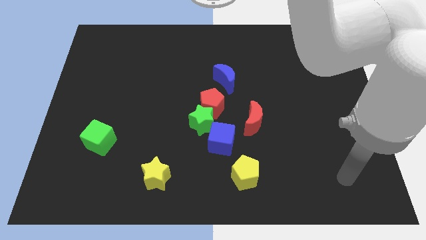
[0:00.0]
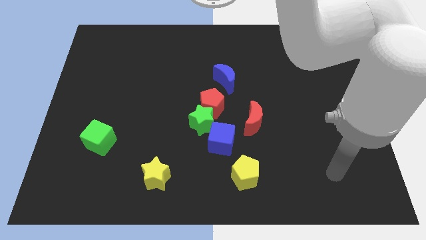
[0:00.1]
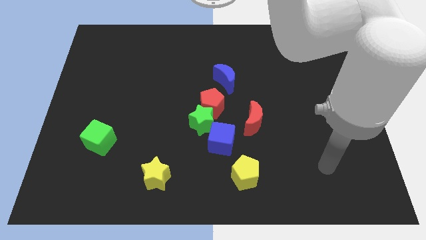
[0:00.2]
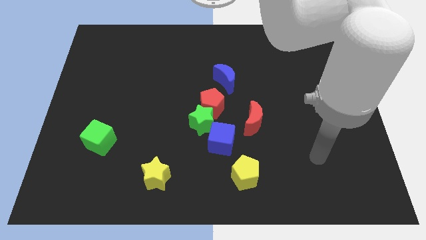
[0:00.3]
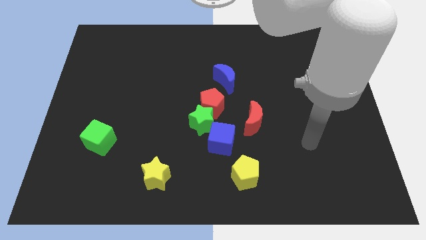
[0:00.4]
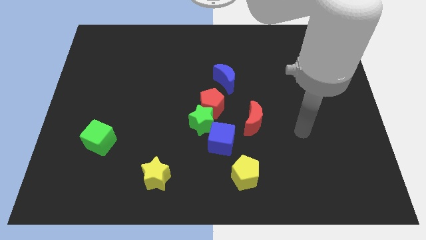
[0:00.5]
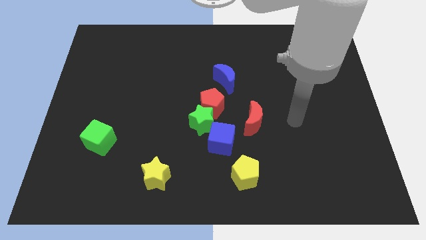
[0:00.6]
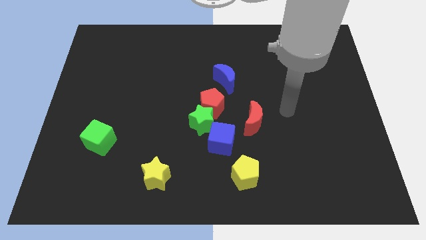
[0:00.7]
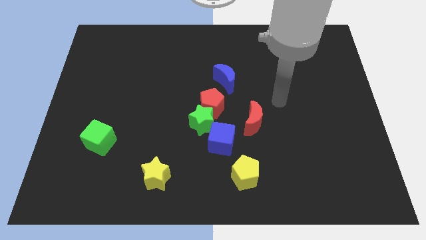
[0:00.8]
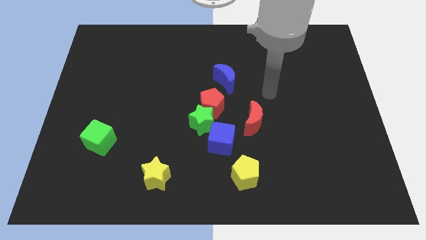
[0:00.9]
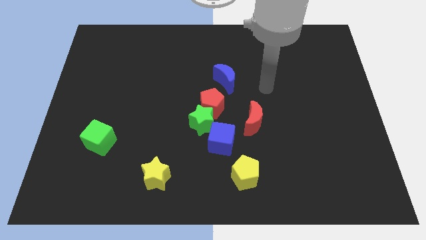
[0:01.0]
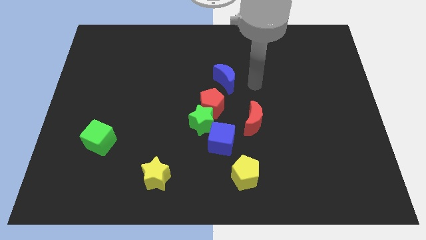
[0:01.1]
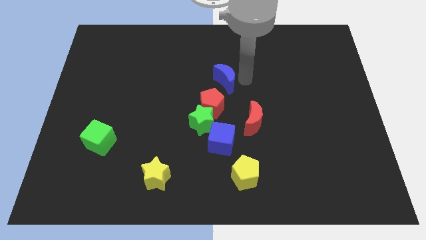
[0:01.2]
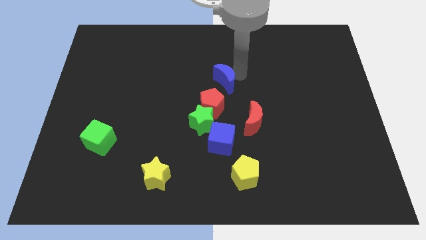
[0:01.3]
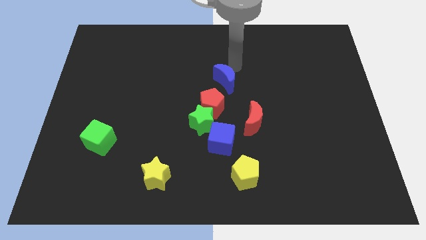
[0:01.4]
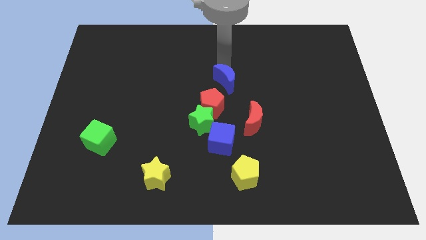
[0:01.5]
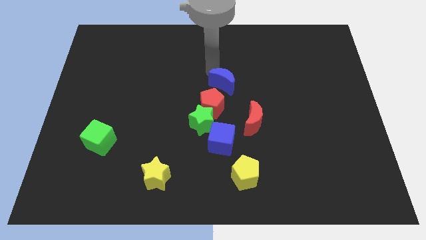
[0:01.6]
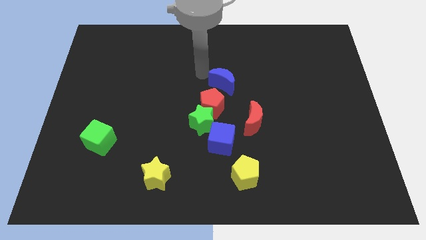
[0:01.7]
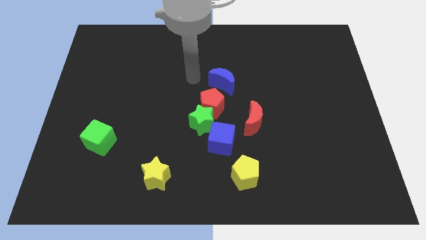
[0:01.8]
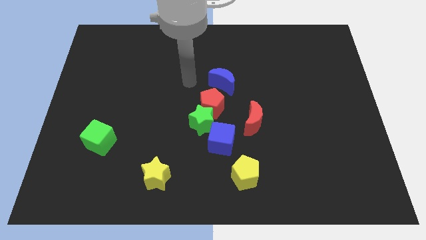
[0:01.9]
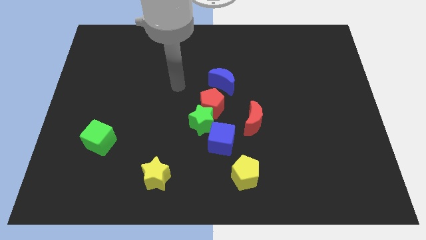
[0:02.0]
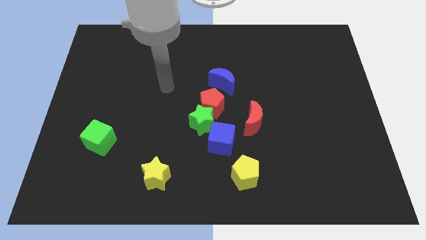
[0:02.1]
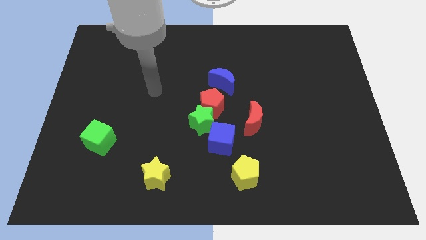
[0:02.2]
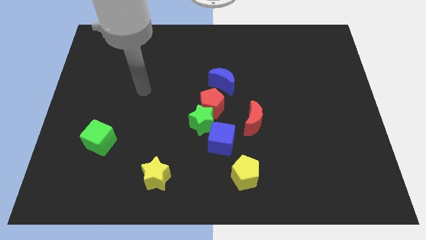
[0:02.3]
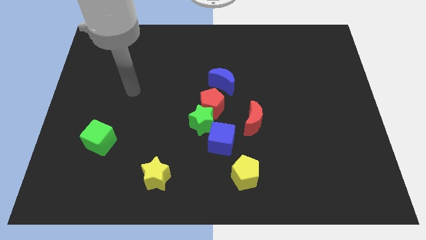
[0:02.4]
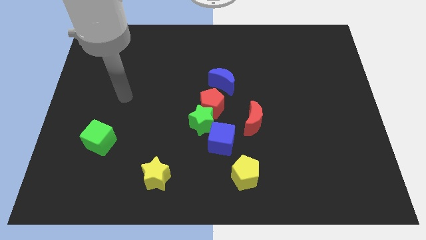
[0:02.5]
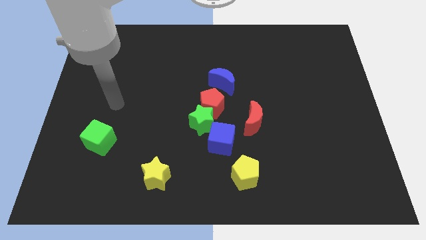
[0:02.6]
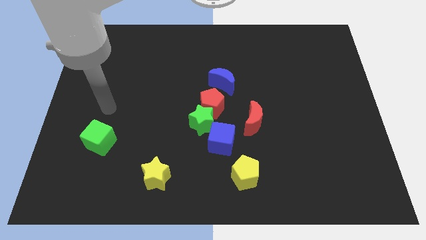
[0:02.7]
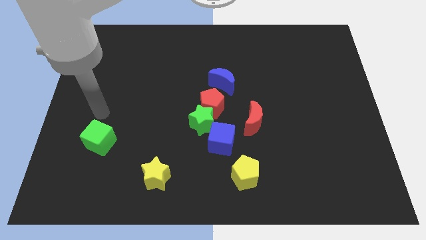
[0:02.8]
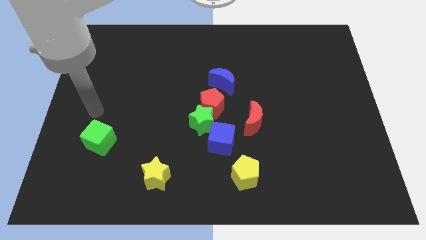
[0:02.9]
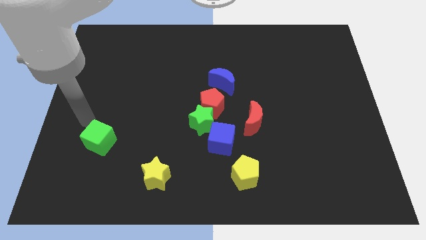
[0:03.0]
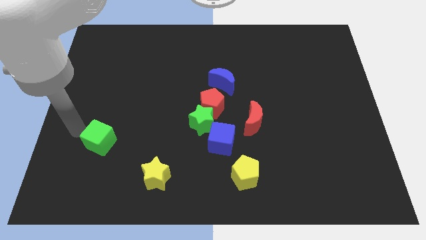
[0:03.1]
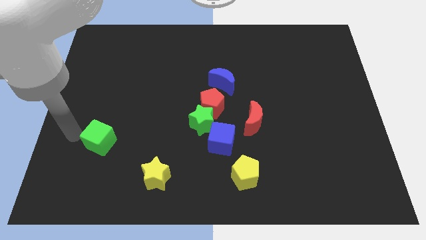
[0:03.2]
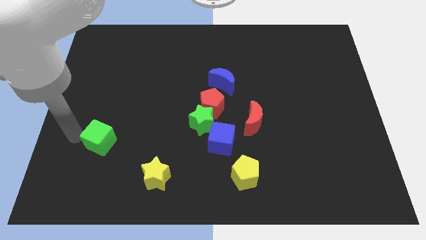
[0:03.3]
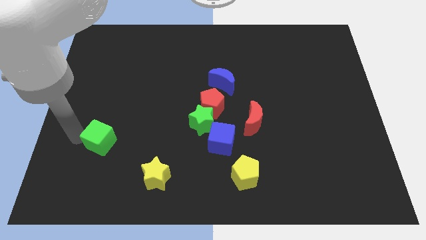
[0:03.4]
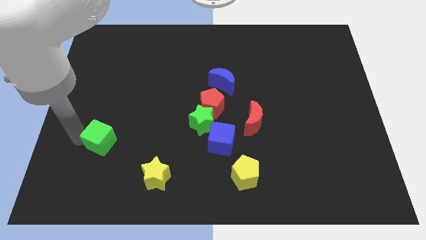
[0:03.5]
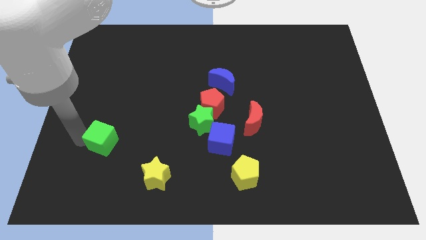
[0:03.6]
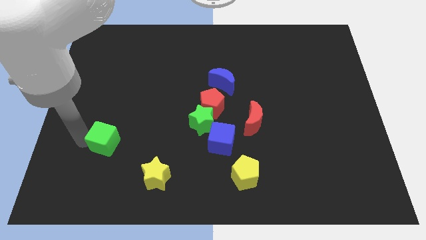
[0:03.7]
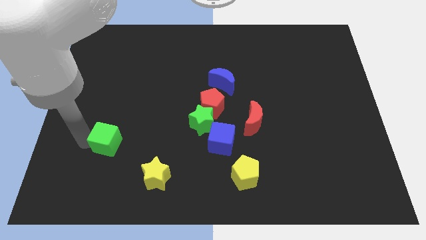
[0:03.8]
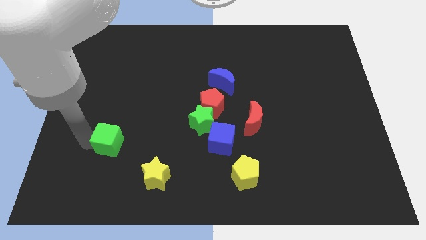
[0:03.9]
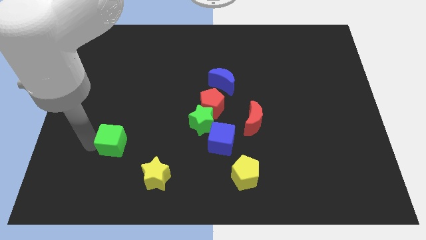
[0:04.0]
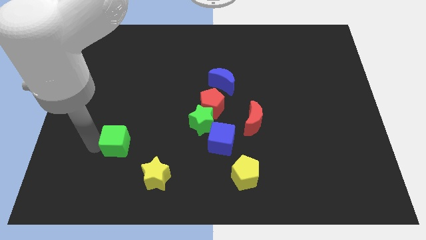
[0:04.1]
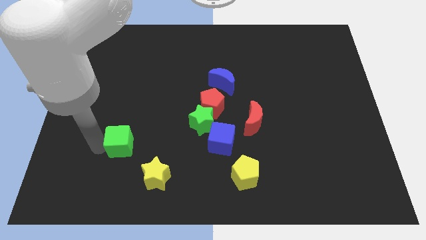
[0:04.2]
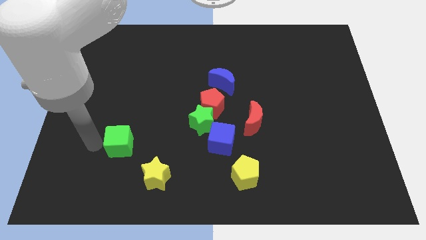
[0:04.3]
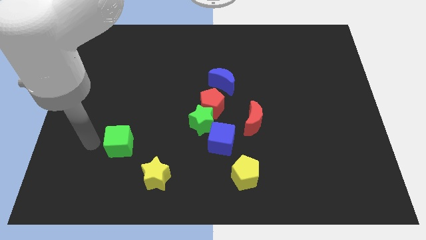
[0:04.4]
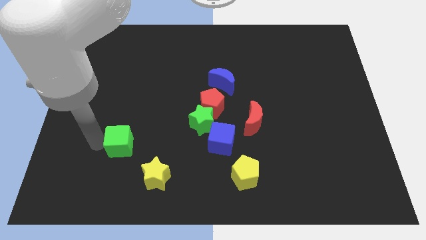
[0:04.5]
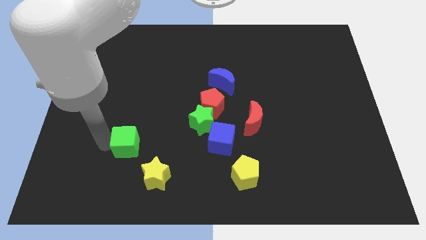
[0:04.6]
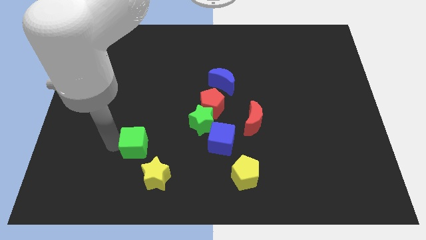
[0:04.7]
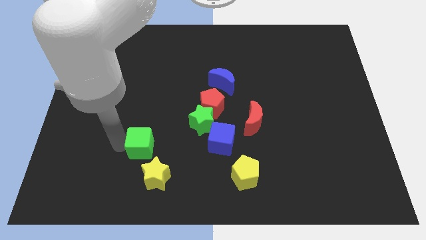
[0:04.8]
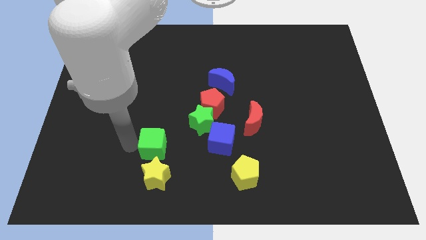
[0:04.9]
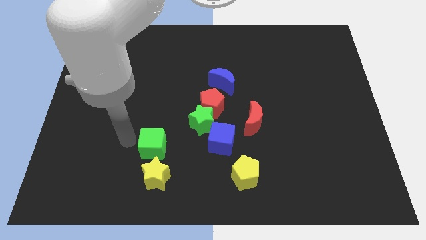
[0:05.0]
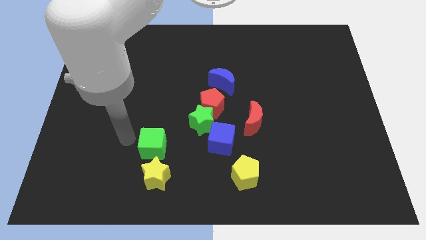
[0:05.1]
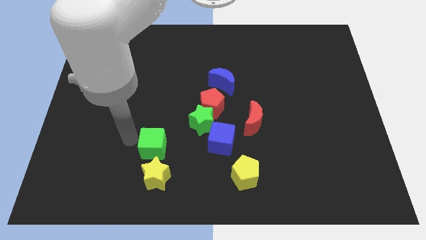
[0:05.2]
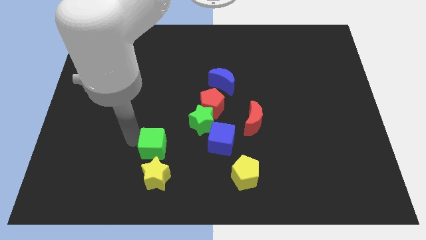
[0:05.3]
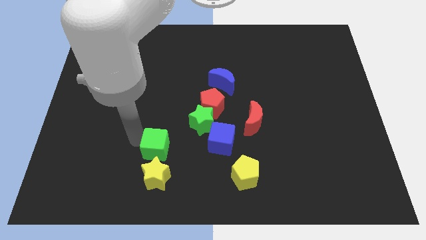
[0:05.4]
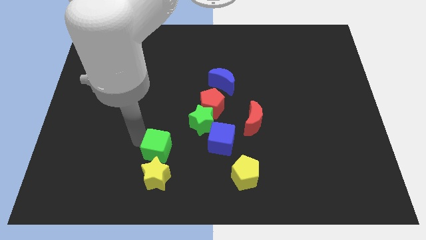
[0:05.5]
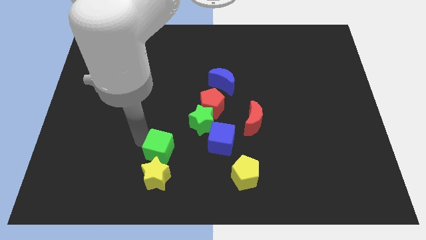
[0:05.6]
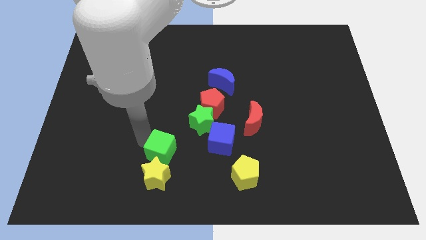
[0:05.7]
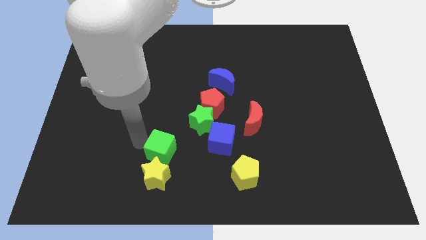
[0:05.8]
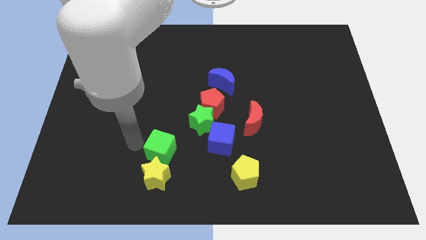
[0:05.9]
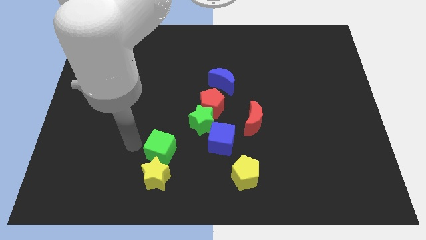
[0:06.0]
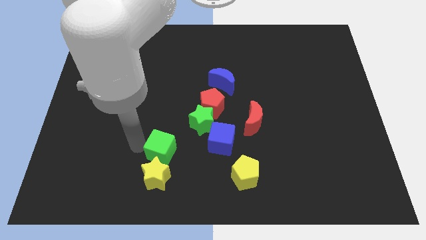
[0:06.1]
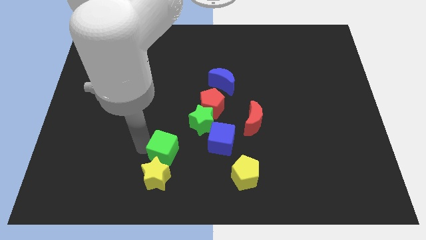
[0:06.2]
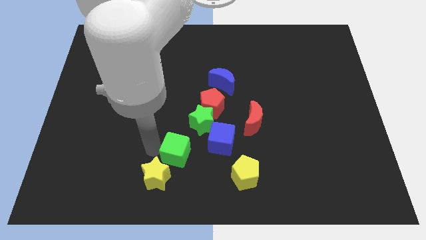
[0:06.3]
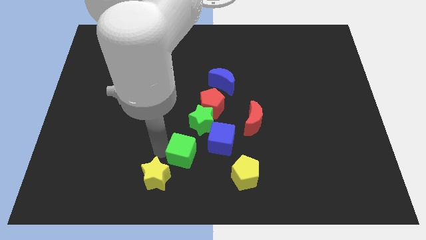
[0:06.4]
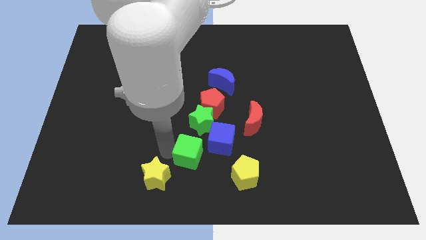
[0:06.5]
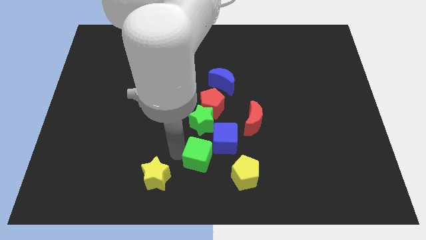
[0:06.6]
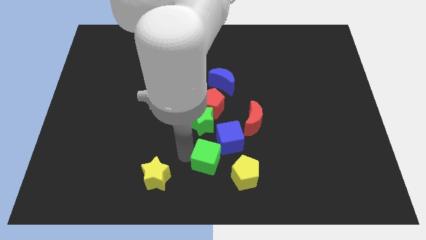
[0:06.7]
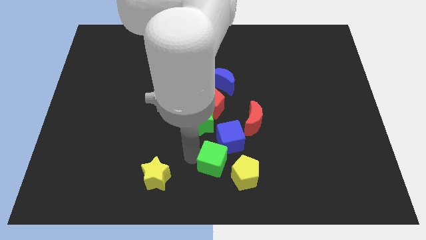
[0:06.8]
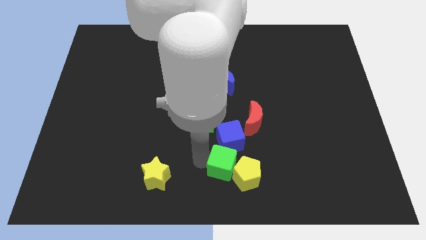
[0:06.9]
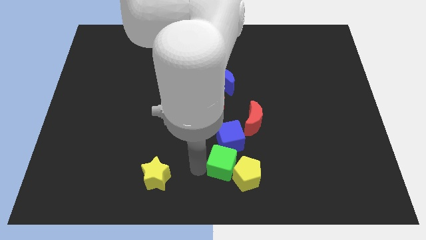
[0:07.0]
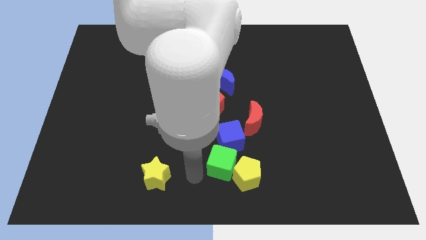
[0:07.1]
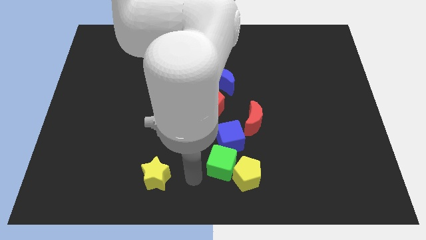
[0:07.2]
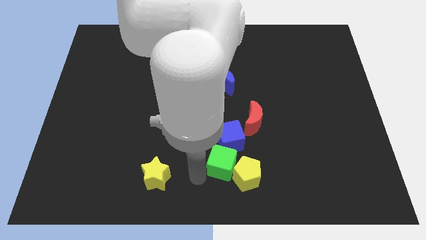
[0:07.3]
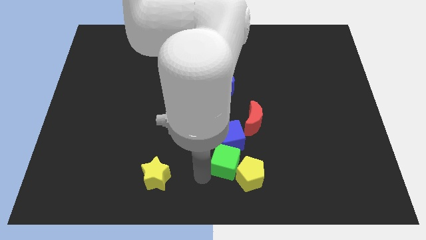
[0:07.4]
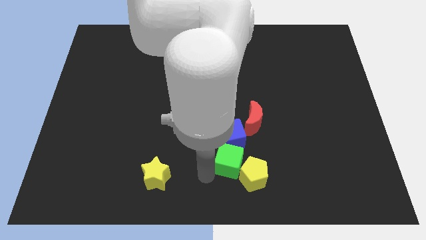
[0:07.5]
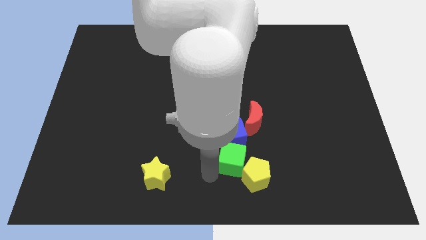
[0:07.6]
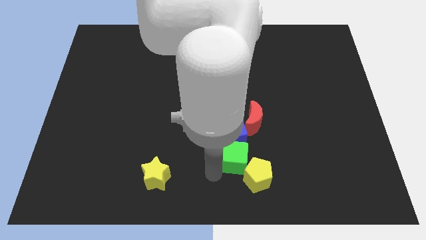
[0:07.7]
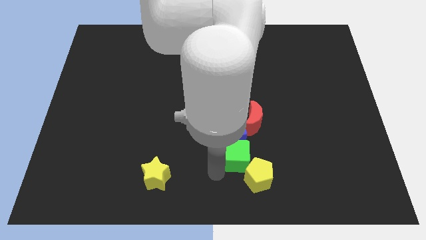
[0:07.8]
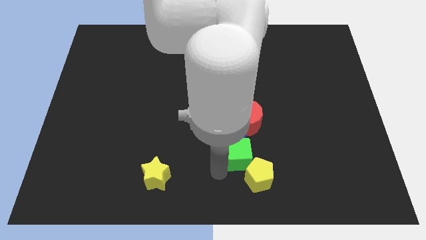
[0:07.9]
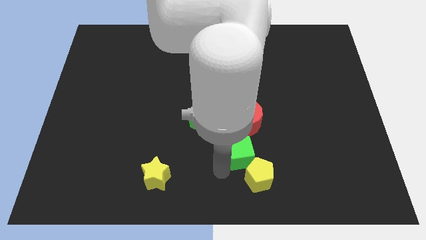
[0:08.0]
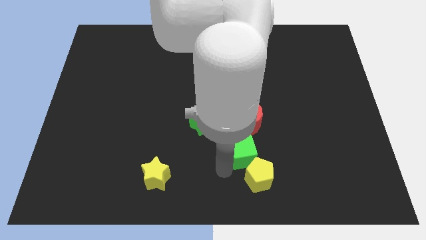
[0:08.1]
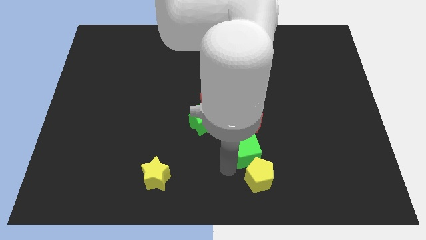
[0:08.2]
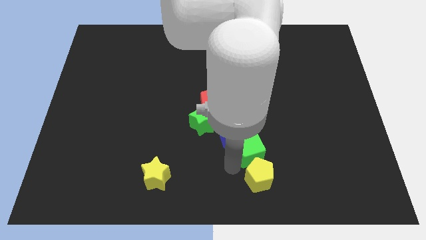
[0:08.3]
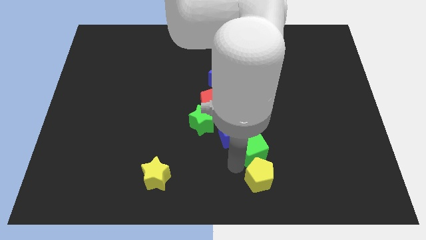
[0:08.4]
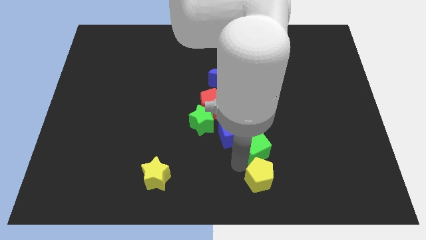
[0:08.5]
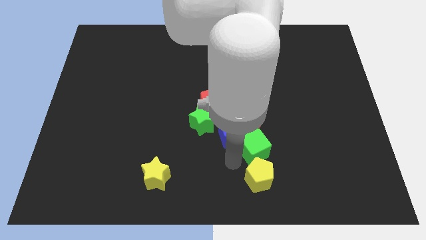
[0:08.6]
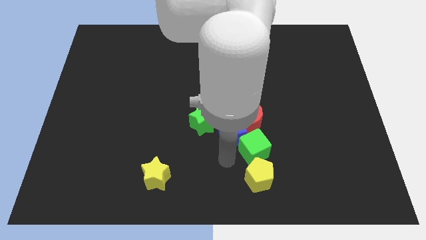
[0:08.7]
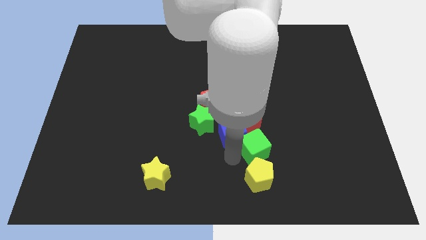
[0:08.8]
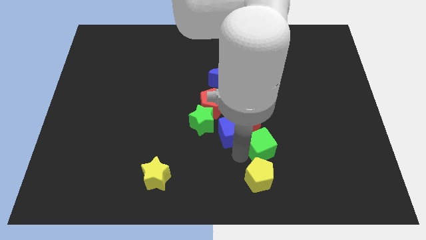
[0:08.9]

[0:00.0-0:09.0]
slide the green cube diagonally down and to the right of the red moon
